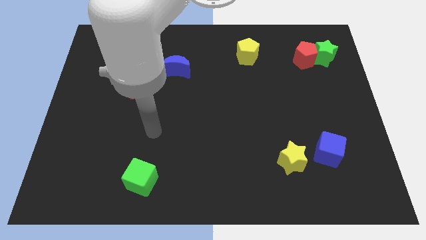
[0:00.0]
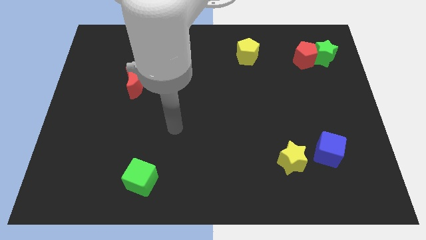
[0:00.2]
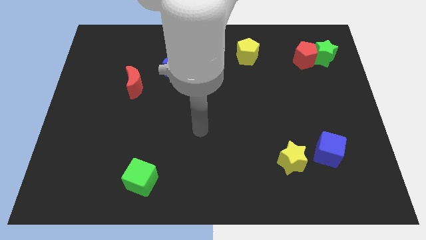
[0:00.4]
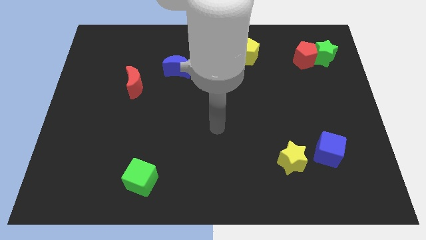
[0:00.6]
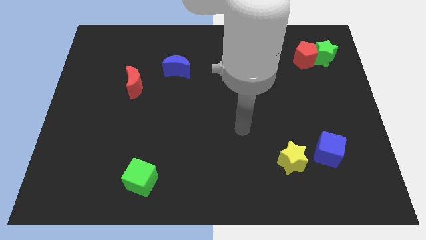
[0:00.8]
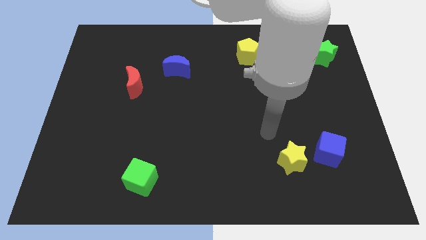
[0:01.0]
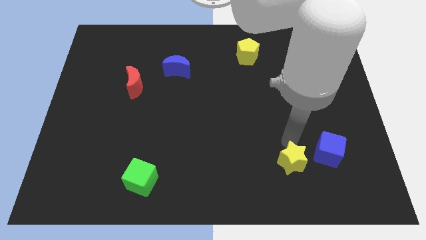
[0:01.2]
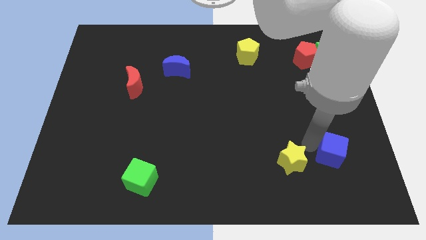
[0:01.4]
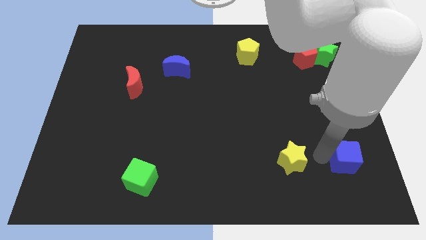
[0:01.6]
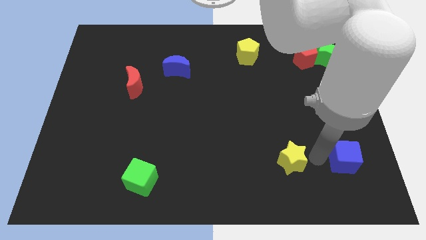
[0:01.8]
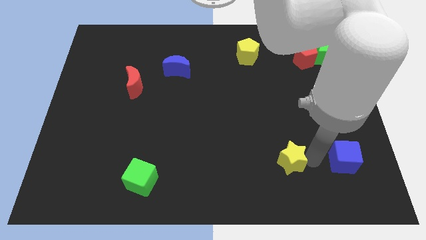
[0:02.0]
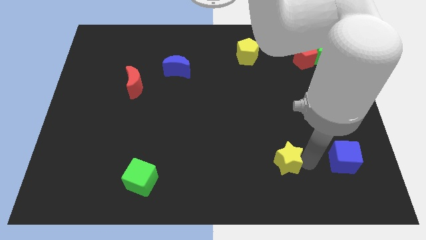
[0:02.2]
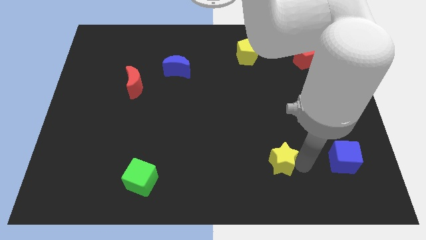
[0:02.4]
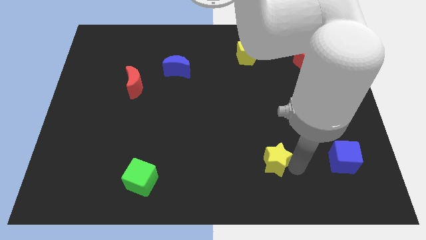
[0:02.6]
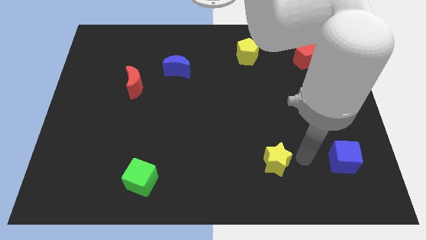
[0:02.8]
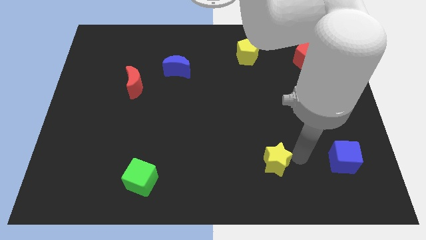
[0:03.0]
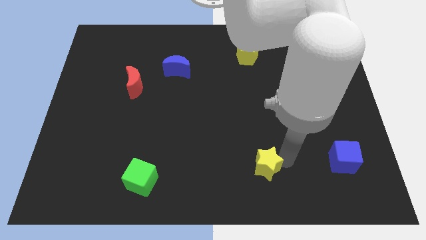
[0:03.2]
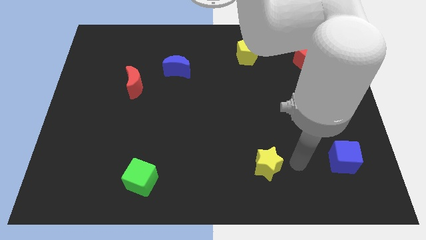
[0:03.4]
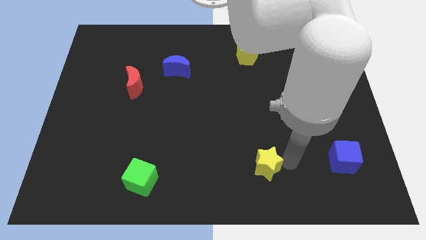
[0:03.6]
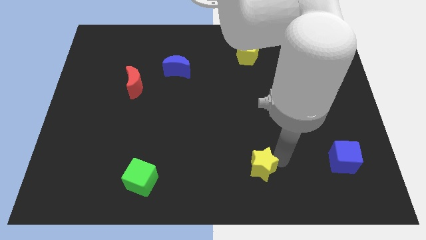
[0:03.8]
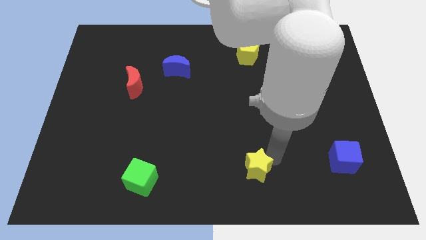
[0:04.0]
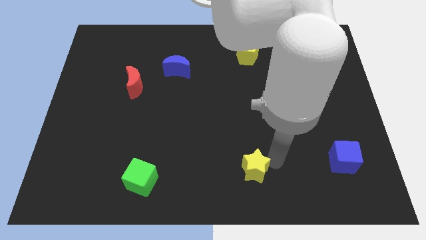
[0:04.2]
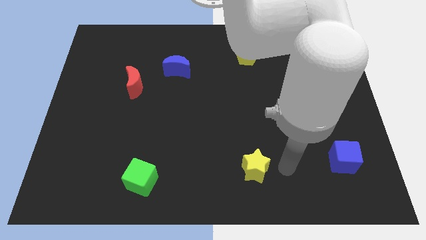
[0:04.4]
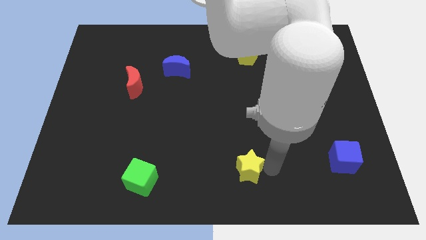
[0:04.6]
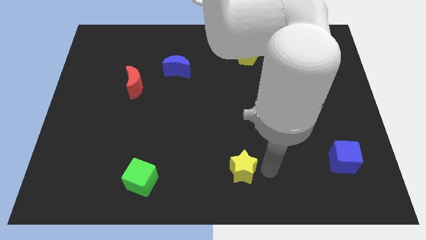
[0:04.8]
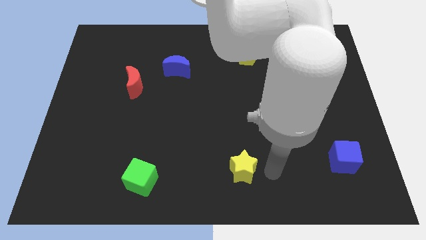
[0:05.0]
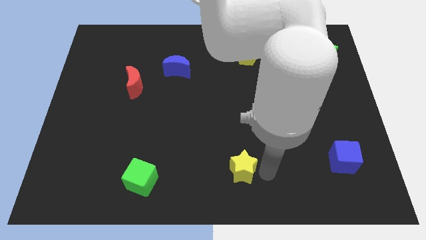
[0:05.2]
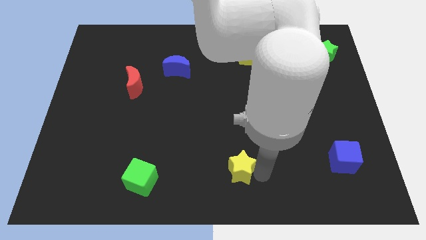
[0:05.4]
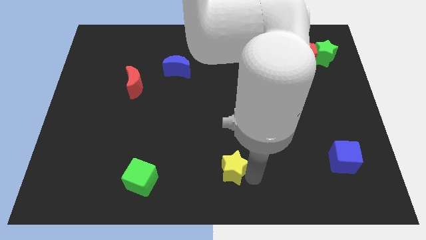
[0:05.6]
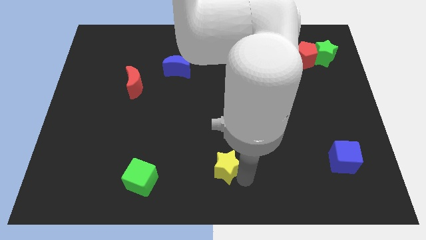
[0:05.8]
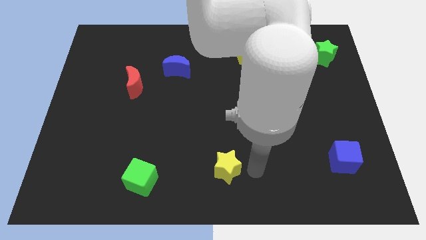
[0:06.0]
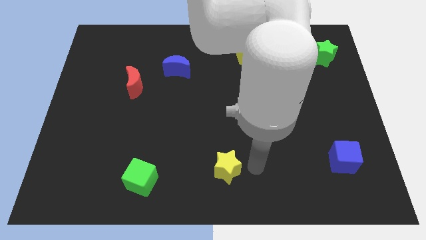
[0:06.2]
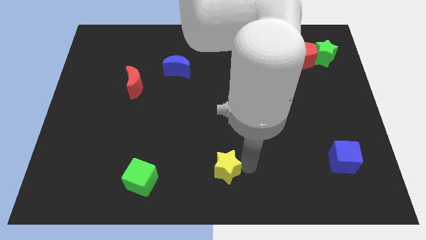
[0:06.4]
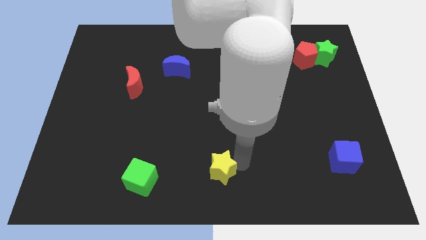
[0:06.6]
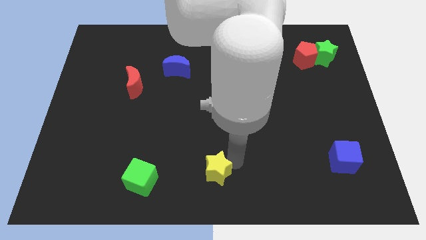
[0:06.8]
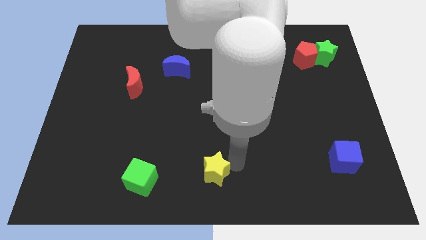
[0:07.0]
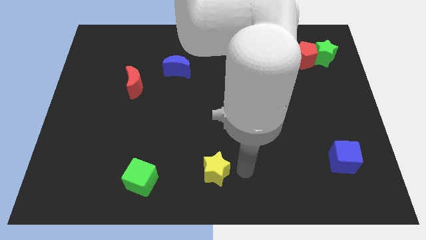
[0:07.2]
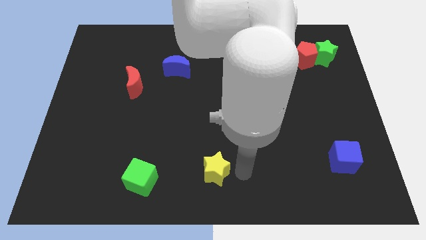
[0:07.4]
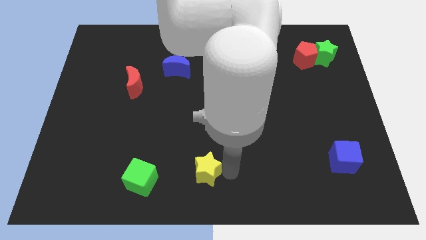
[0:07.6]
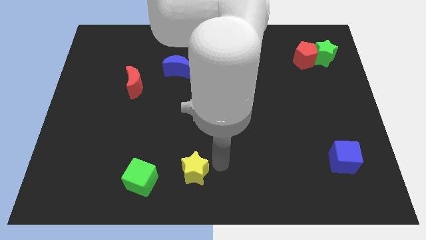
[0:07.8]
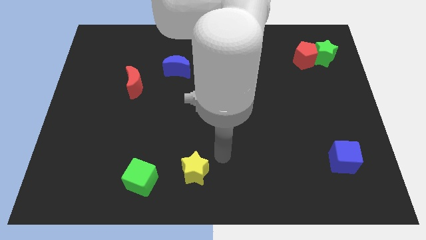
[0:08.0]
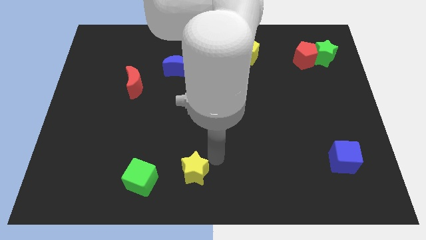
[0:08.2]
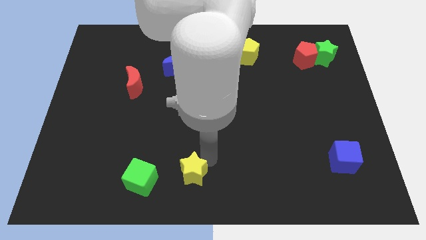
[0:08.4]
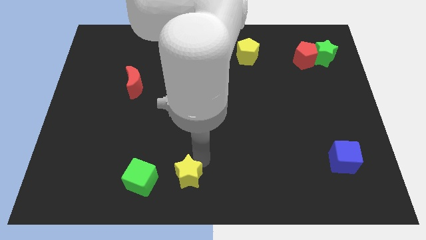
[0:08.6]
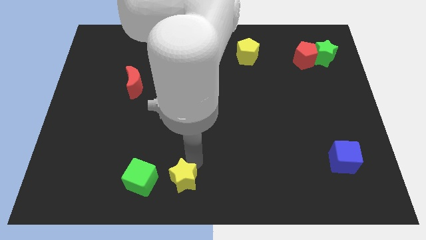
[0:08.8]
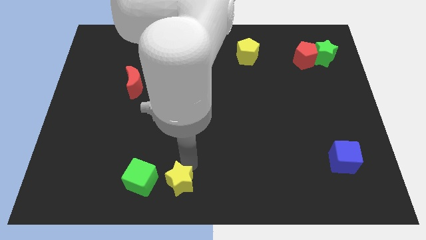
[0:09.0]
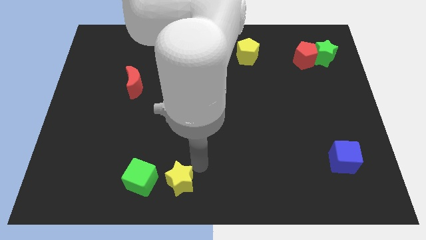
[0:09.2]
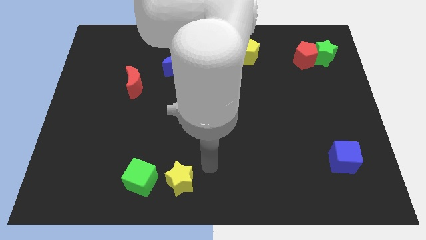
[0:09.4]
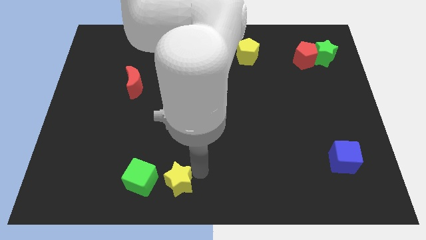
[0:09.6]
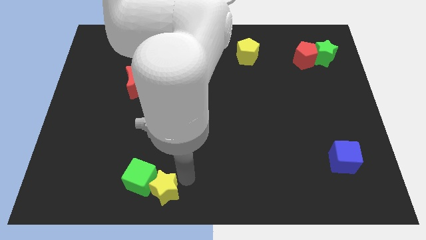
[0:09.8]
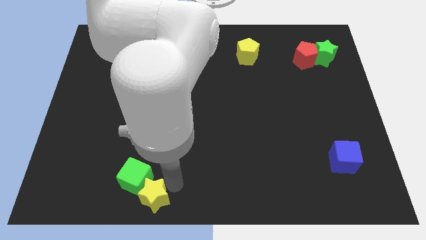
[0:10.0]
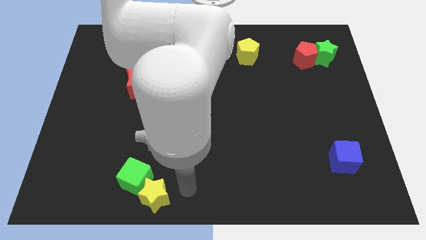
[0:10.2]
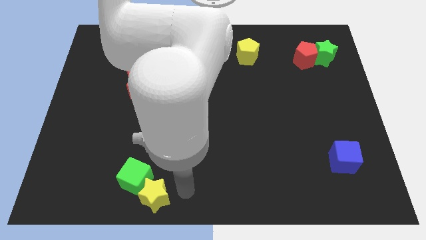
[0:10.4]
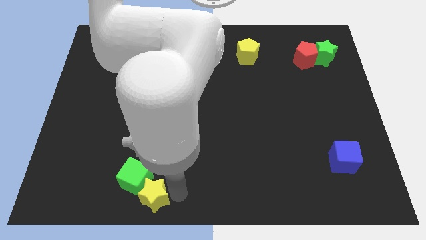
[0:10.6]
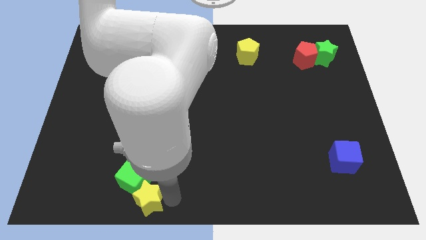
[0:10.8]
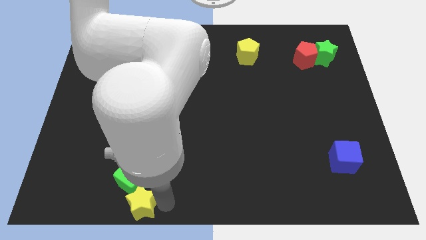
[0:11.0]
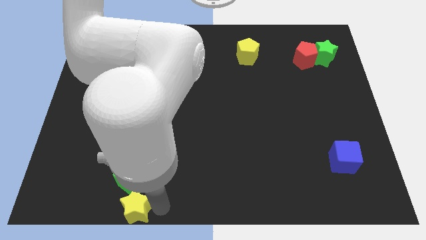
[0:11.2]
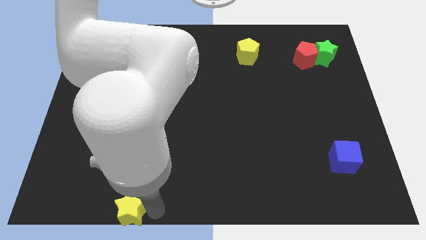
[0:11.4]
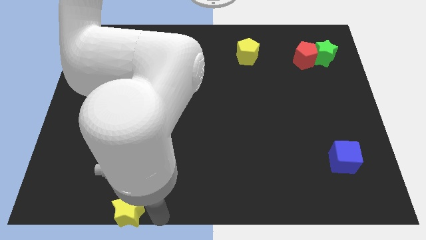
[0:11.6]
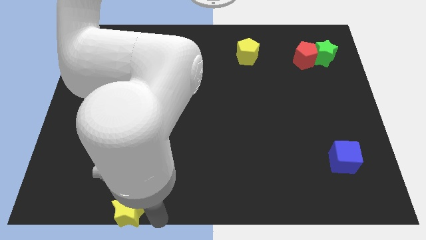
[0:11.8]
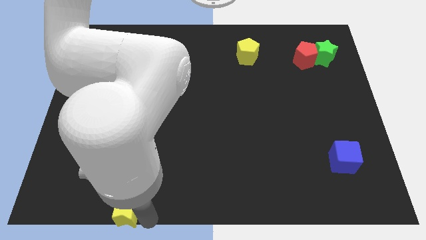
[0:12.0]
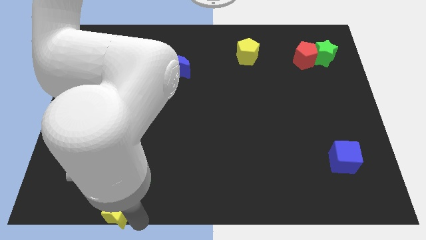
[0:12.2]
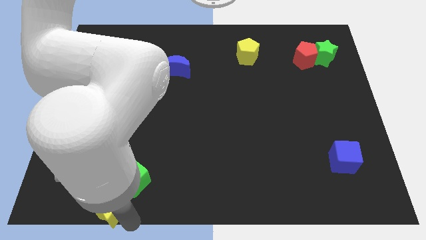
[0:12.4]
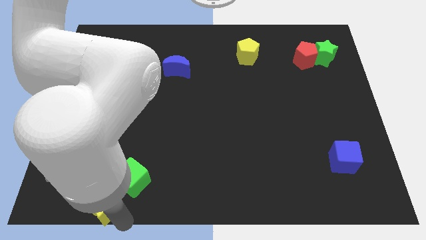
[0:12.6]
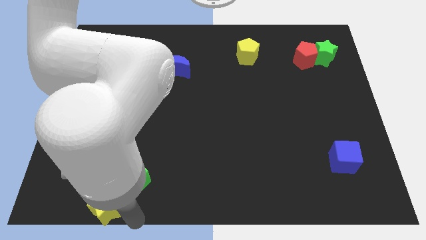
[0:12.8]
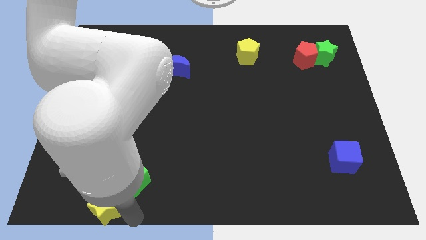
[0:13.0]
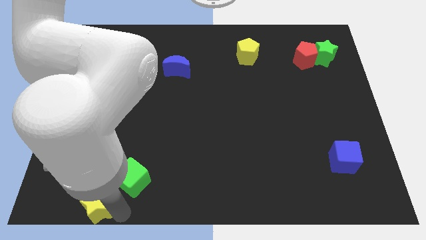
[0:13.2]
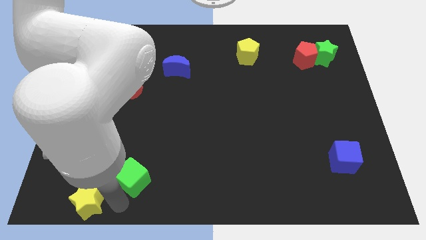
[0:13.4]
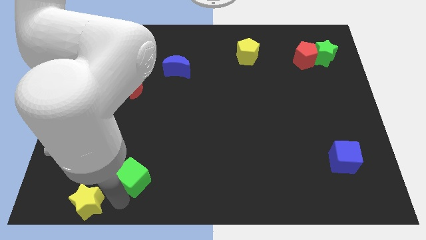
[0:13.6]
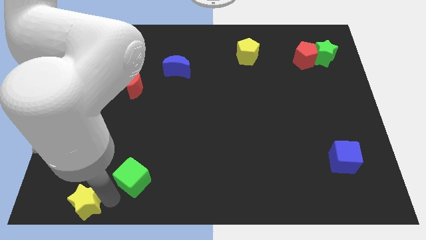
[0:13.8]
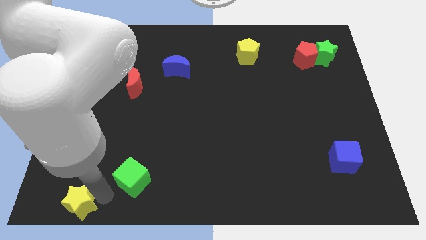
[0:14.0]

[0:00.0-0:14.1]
slide the yellow star to the lower left corner
